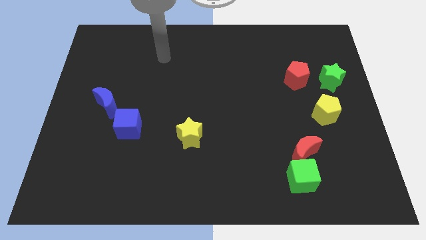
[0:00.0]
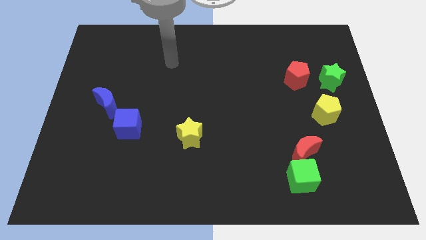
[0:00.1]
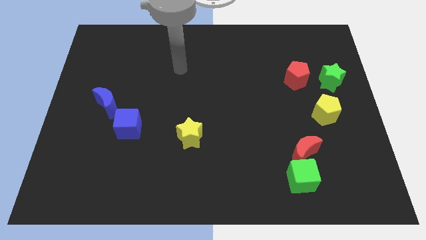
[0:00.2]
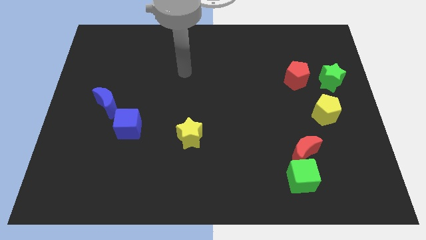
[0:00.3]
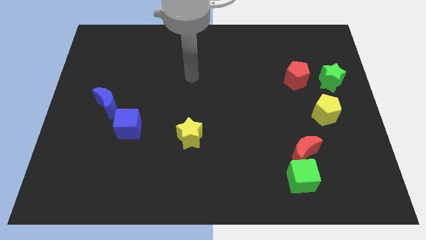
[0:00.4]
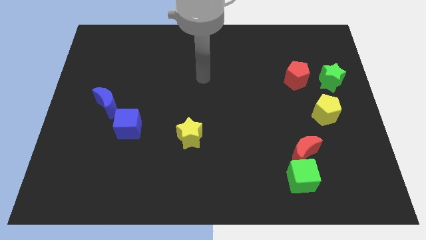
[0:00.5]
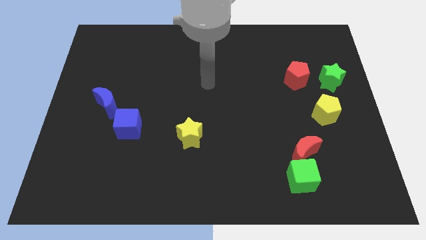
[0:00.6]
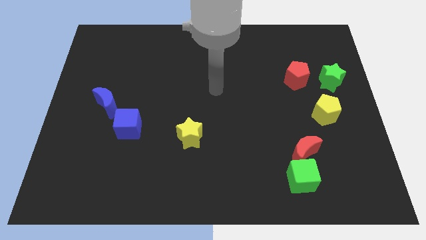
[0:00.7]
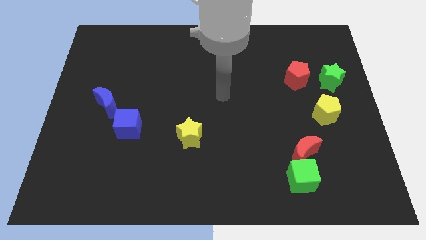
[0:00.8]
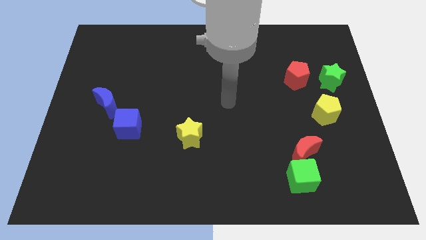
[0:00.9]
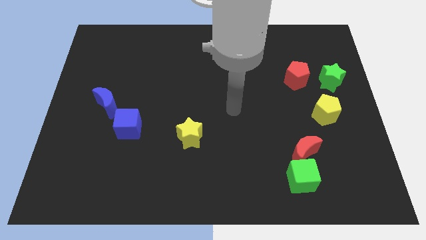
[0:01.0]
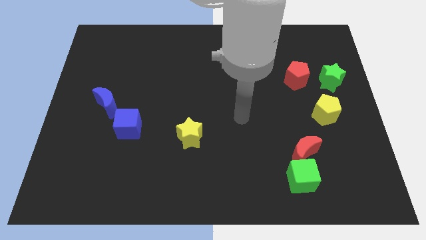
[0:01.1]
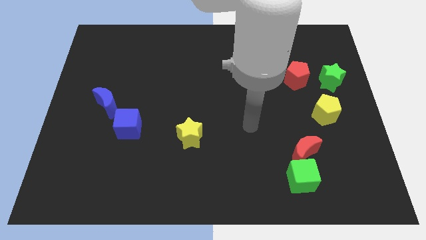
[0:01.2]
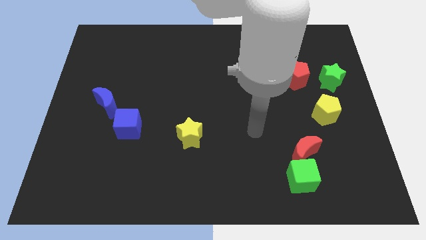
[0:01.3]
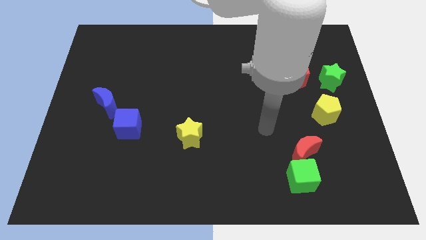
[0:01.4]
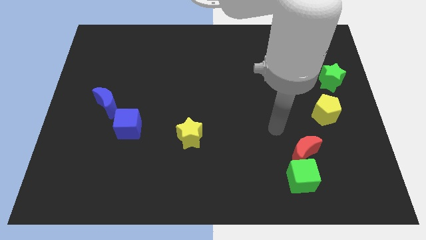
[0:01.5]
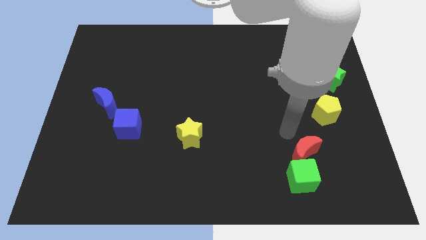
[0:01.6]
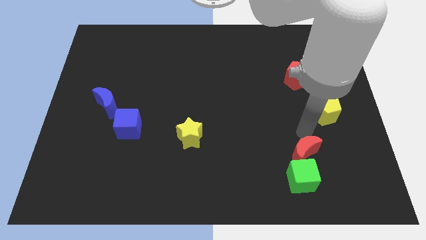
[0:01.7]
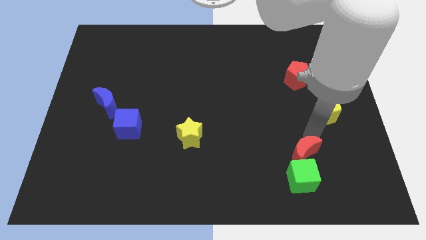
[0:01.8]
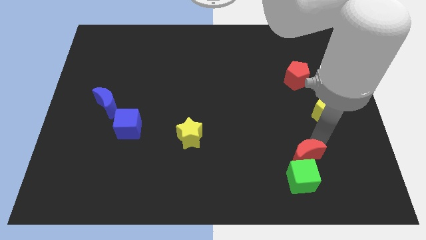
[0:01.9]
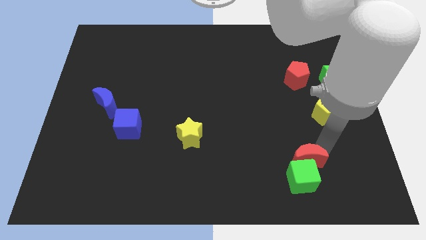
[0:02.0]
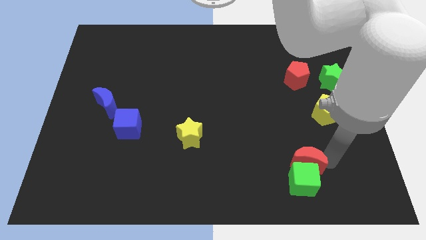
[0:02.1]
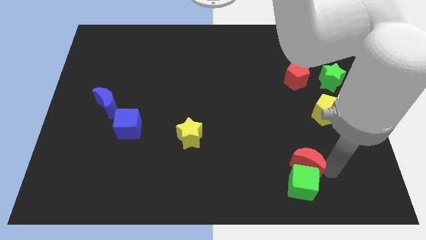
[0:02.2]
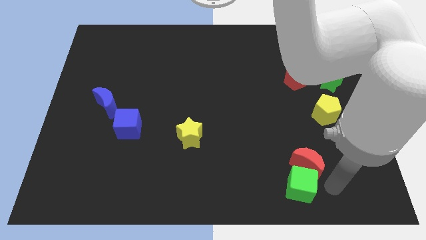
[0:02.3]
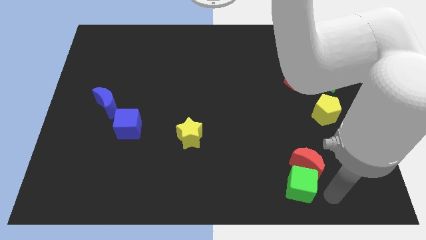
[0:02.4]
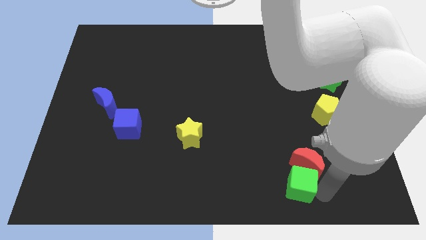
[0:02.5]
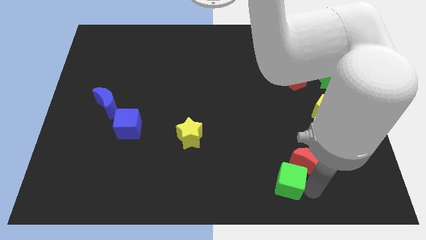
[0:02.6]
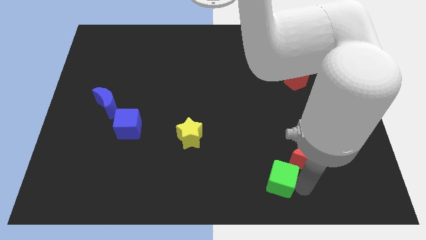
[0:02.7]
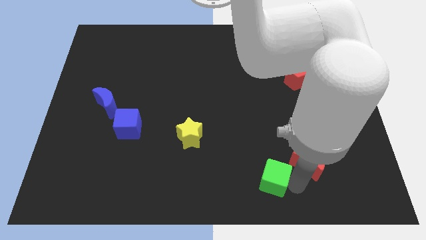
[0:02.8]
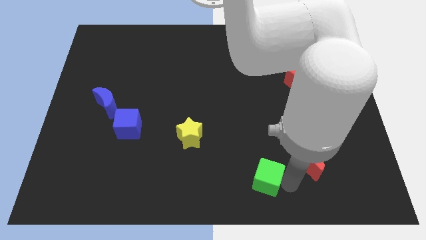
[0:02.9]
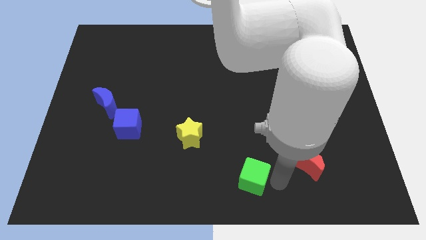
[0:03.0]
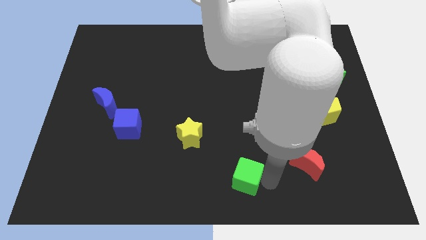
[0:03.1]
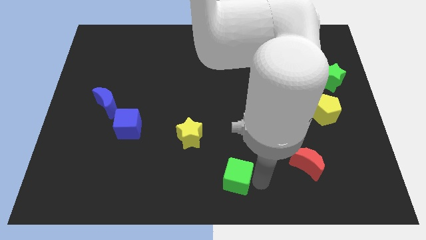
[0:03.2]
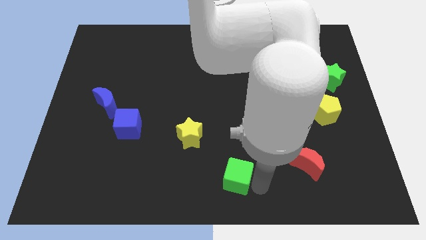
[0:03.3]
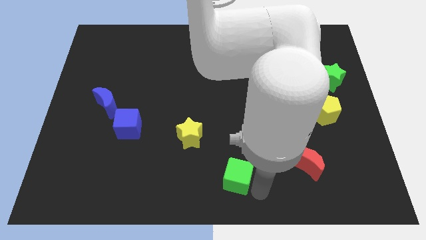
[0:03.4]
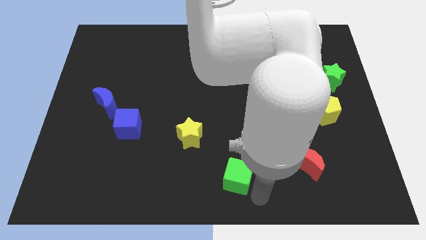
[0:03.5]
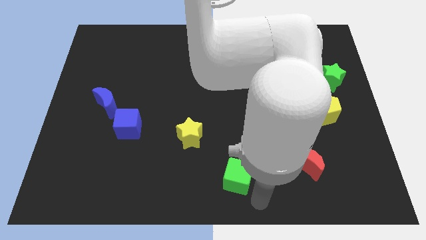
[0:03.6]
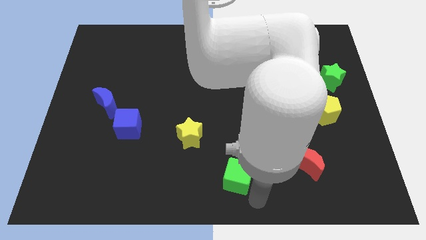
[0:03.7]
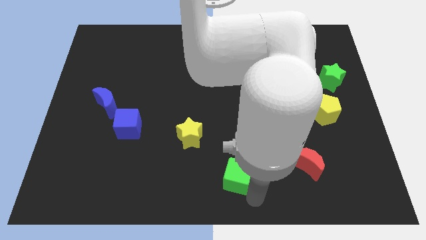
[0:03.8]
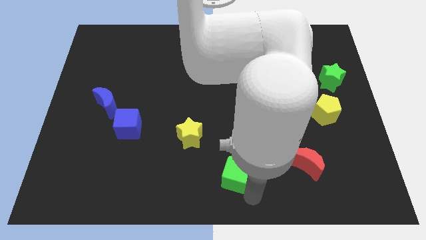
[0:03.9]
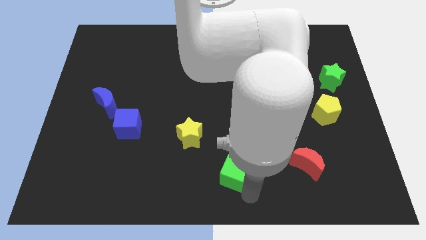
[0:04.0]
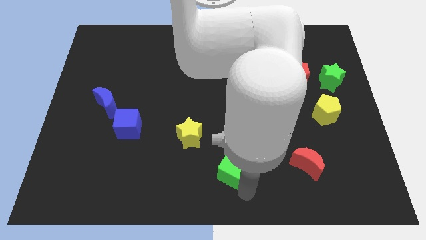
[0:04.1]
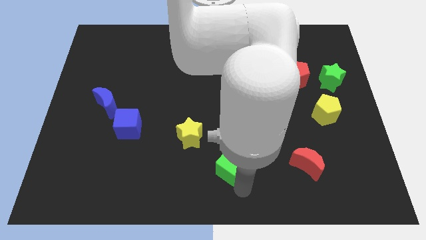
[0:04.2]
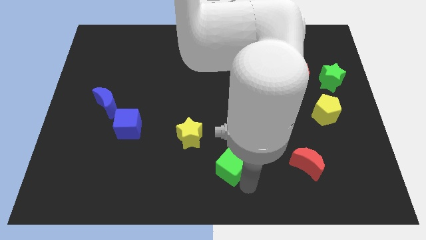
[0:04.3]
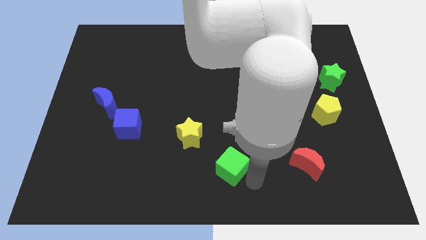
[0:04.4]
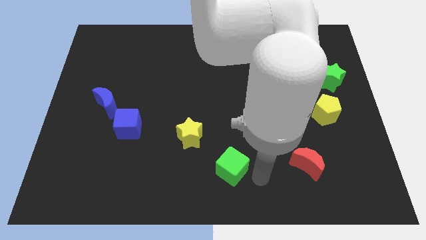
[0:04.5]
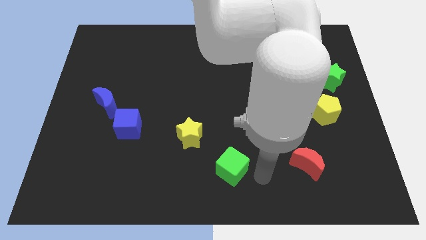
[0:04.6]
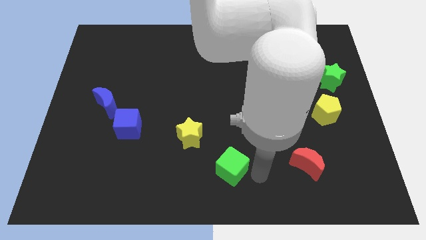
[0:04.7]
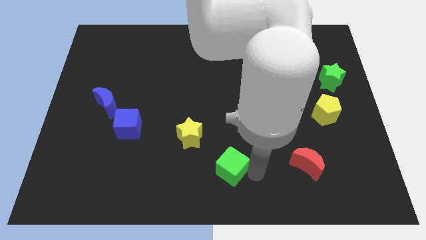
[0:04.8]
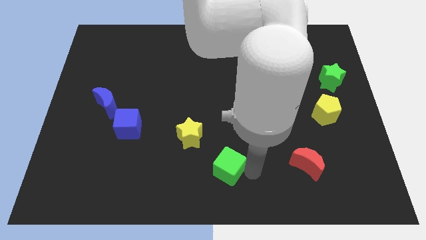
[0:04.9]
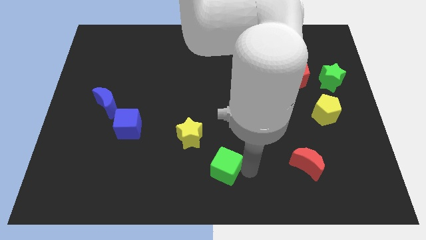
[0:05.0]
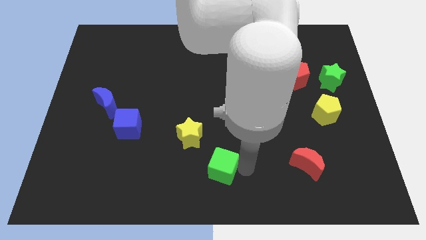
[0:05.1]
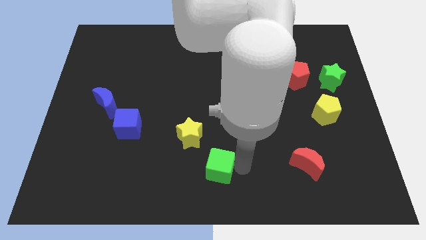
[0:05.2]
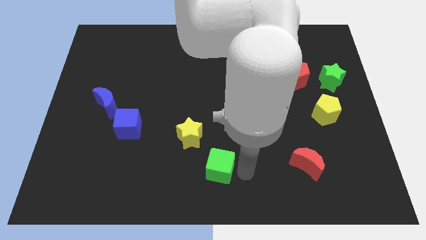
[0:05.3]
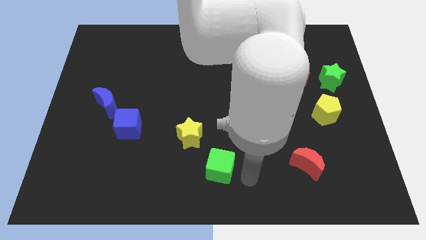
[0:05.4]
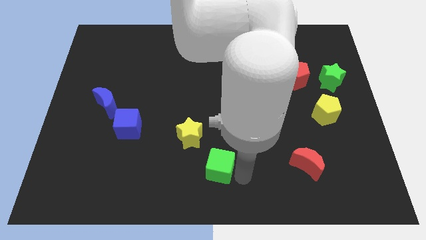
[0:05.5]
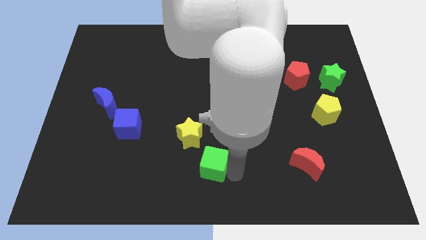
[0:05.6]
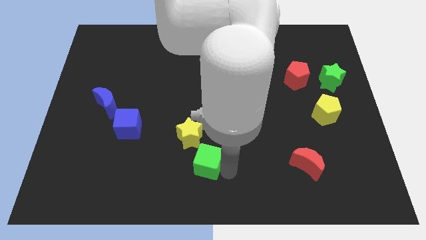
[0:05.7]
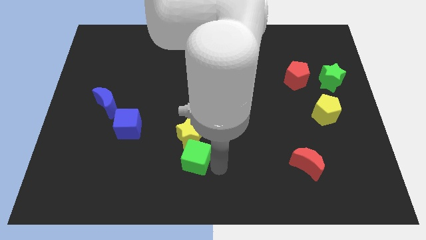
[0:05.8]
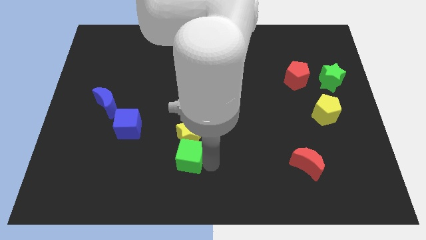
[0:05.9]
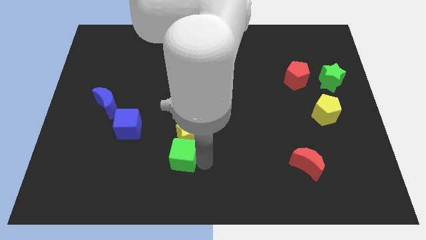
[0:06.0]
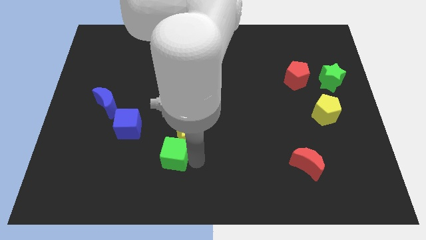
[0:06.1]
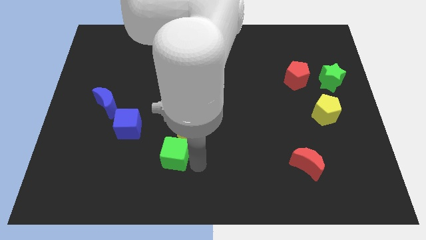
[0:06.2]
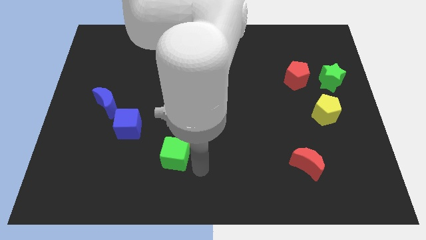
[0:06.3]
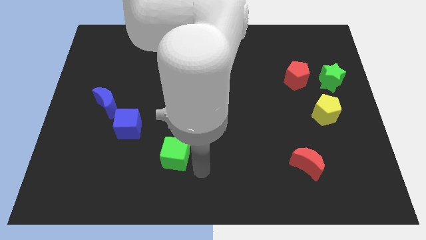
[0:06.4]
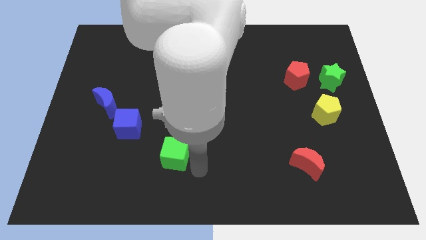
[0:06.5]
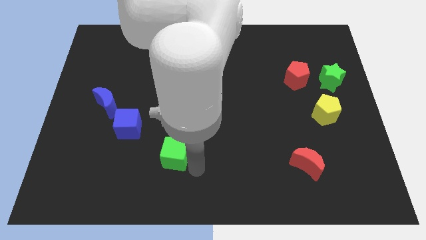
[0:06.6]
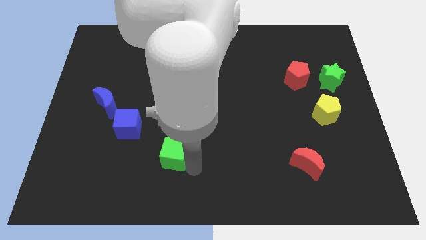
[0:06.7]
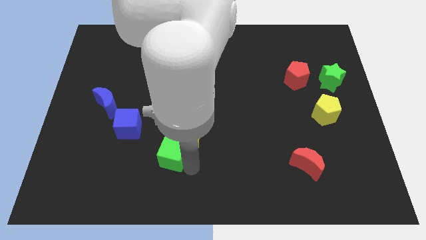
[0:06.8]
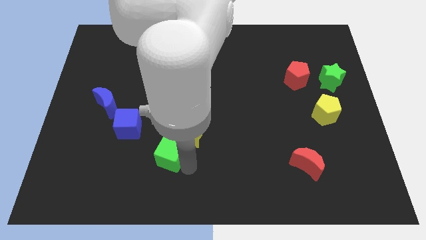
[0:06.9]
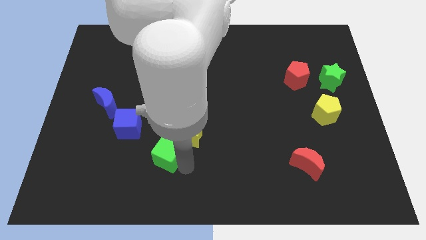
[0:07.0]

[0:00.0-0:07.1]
move the green cube left of the yellow star

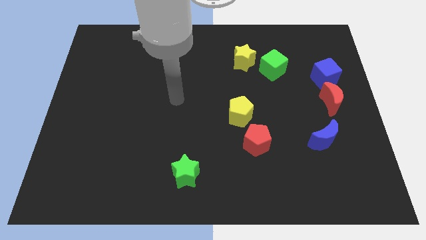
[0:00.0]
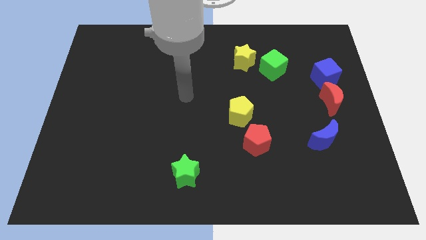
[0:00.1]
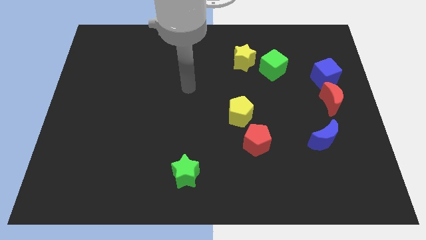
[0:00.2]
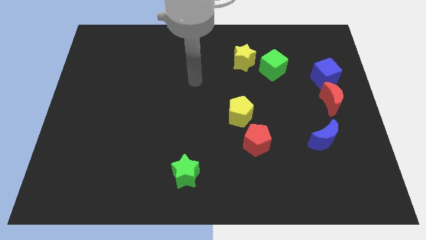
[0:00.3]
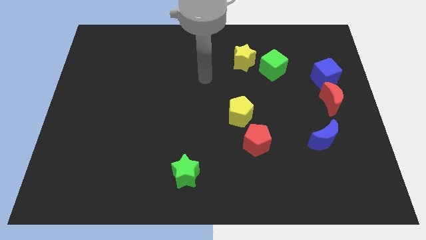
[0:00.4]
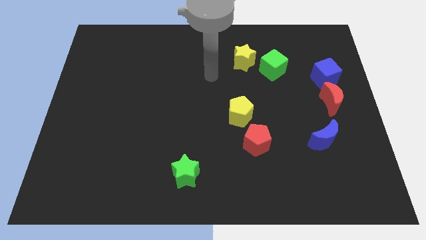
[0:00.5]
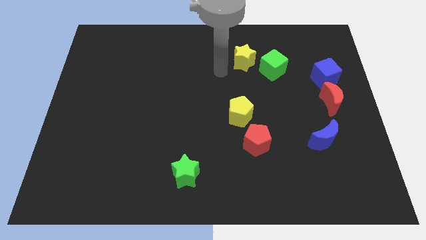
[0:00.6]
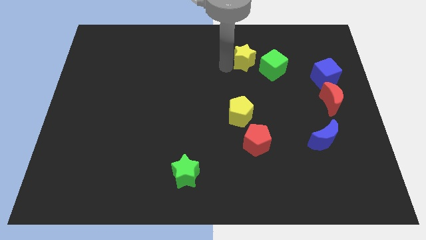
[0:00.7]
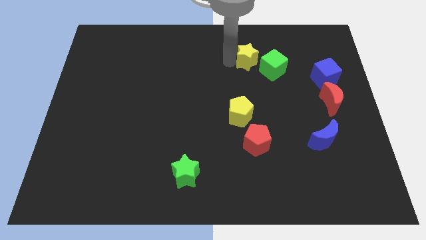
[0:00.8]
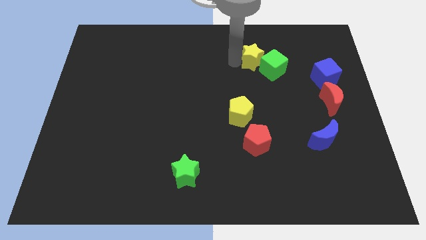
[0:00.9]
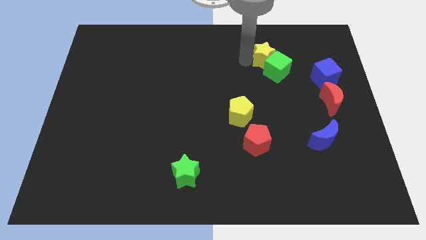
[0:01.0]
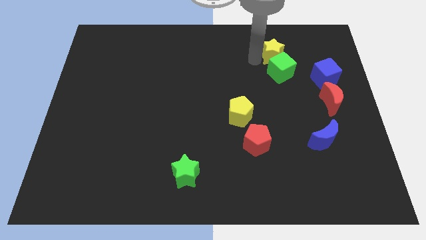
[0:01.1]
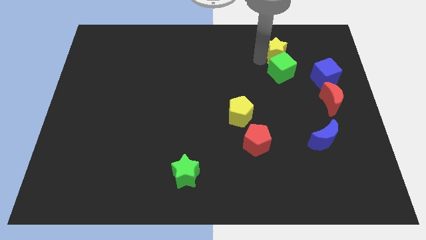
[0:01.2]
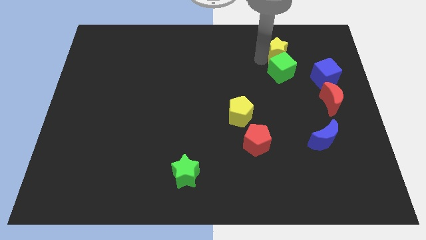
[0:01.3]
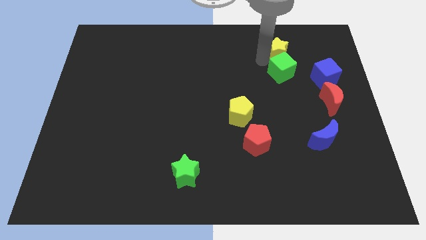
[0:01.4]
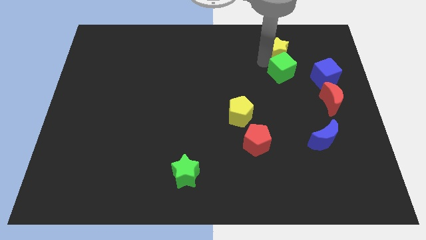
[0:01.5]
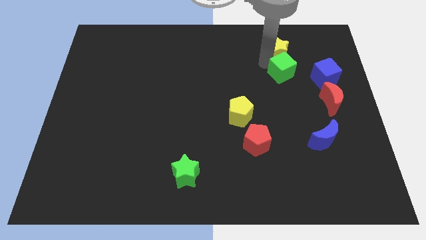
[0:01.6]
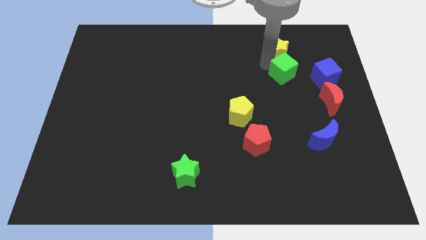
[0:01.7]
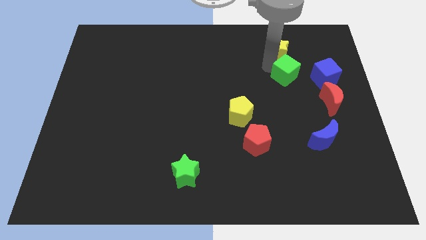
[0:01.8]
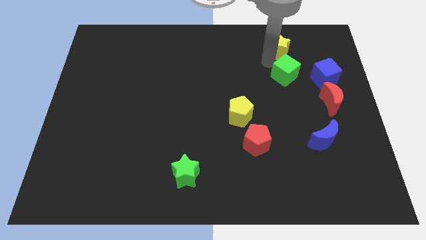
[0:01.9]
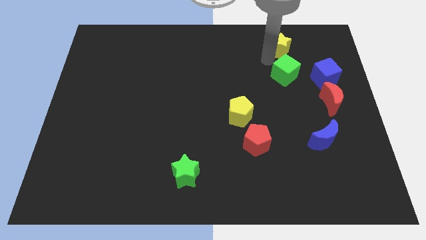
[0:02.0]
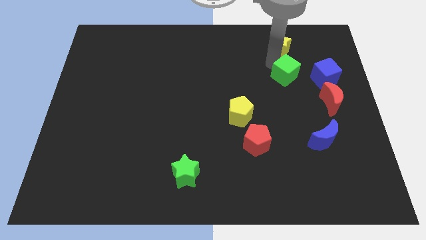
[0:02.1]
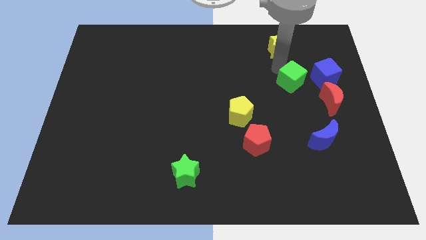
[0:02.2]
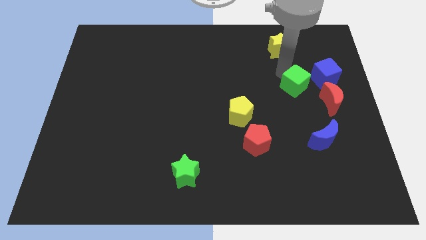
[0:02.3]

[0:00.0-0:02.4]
put the green cube to the bottom left of the blue cube
